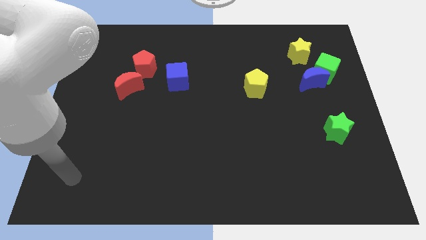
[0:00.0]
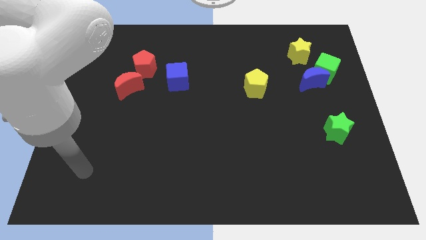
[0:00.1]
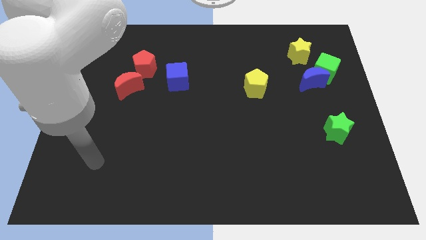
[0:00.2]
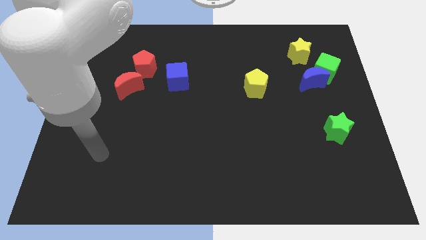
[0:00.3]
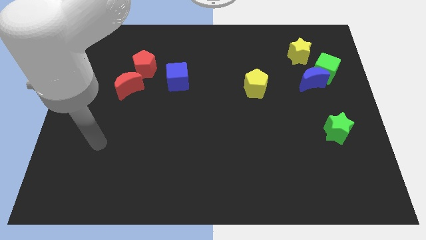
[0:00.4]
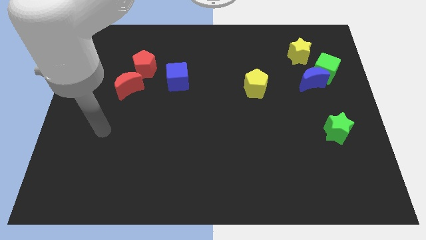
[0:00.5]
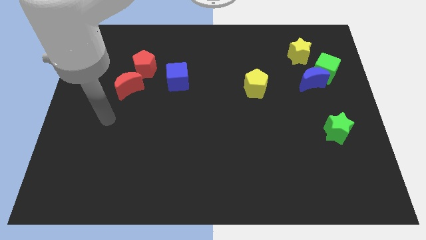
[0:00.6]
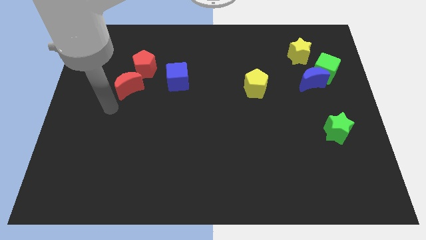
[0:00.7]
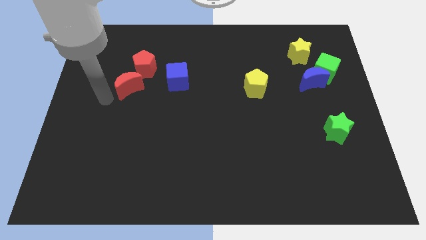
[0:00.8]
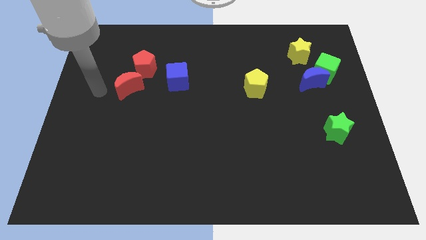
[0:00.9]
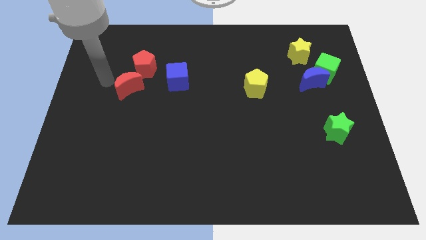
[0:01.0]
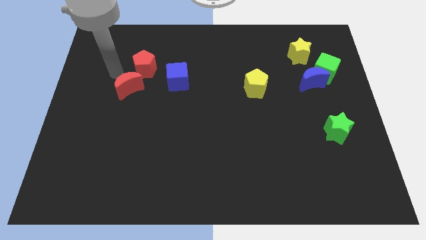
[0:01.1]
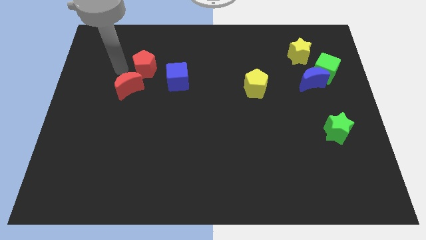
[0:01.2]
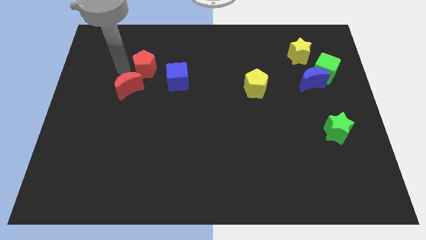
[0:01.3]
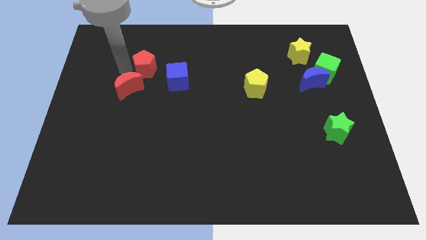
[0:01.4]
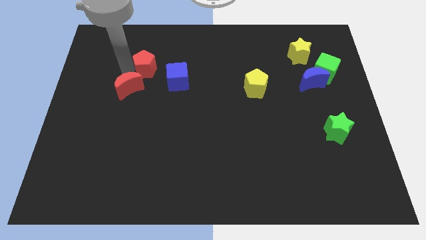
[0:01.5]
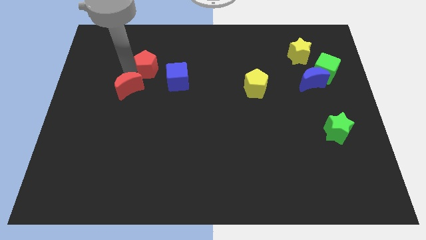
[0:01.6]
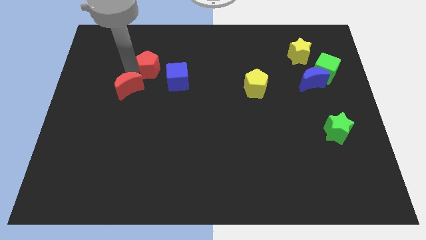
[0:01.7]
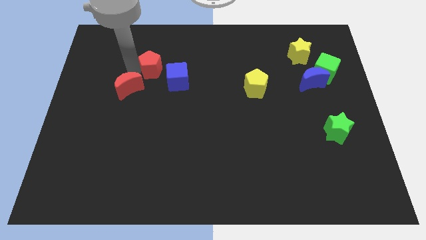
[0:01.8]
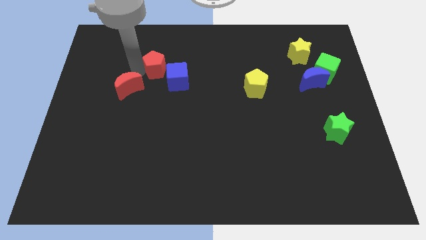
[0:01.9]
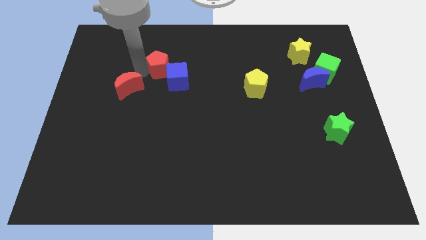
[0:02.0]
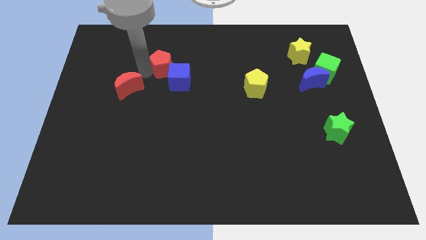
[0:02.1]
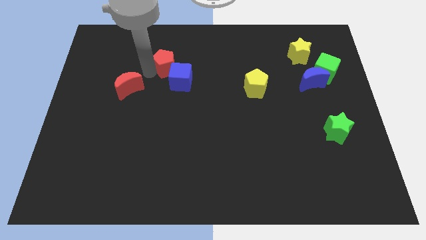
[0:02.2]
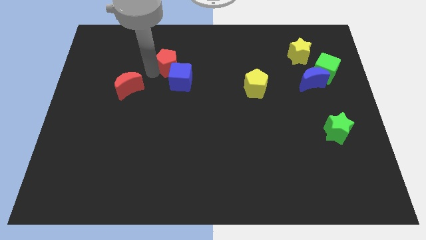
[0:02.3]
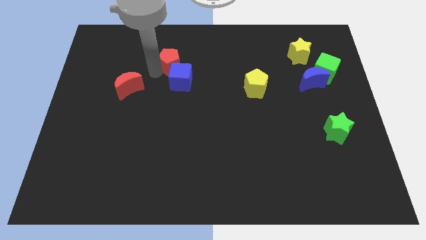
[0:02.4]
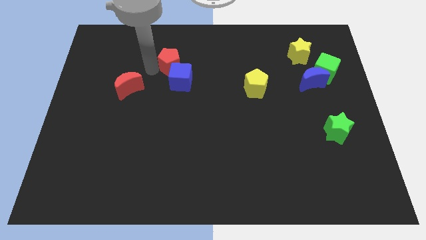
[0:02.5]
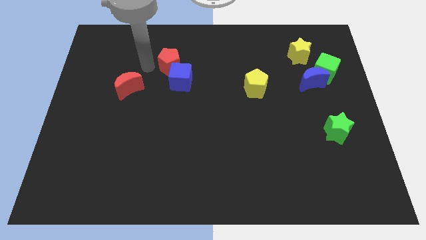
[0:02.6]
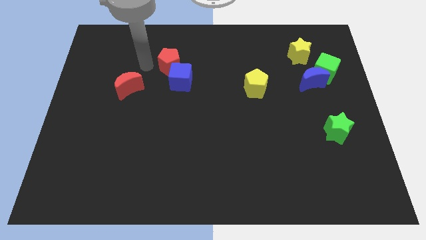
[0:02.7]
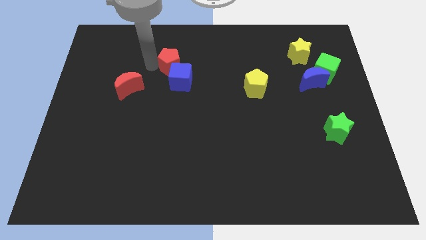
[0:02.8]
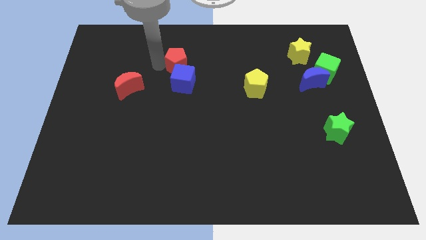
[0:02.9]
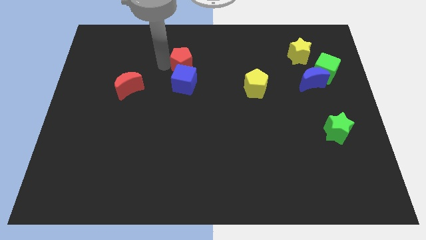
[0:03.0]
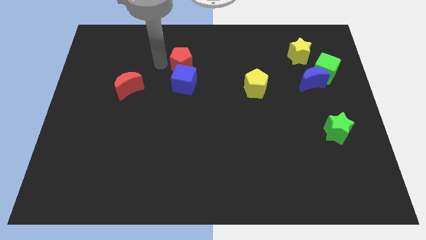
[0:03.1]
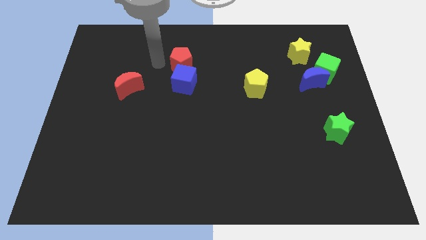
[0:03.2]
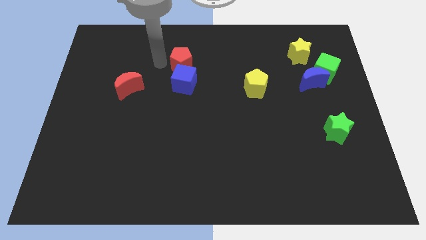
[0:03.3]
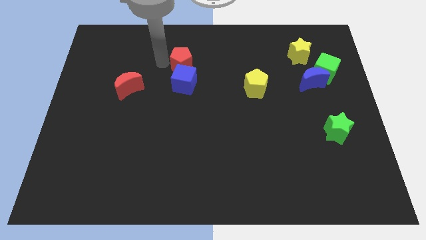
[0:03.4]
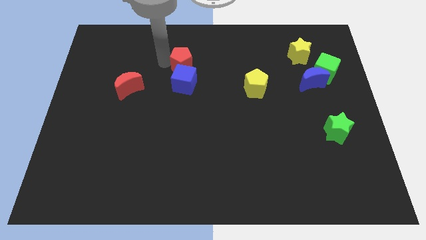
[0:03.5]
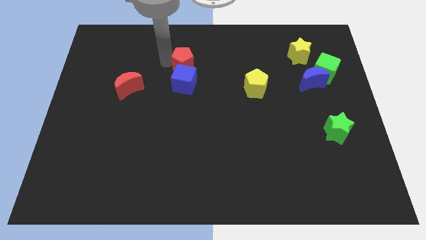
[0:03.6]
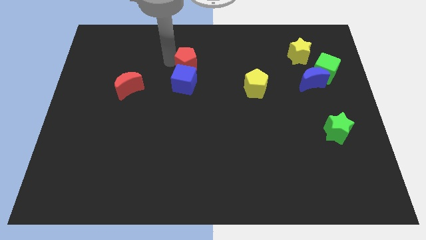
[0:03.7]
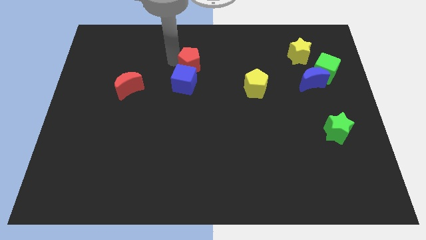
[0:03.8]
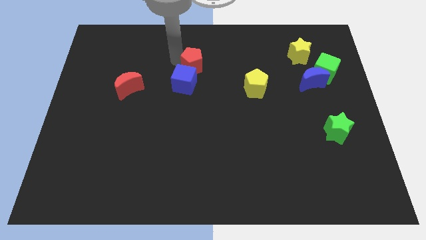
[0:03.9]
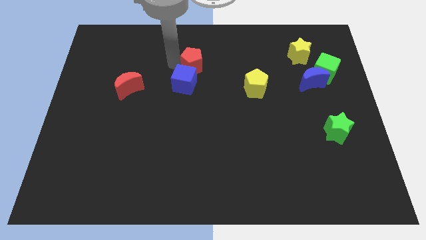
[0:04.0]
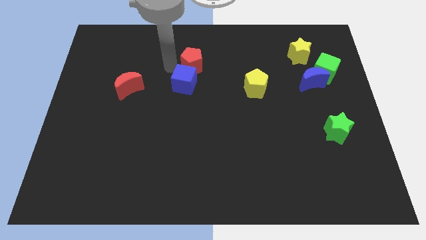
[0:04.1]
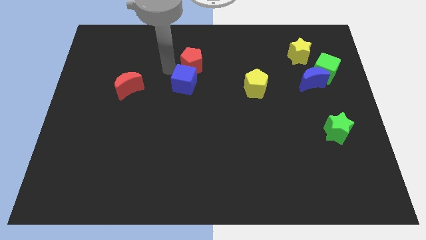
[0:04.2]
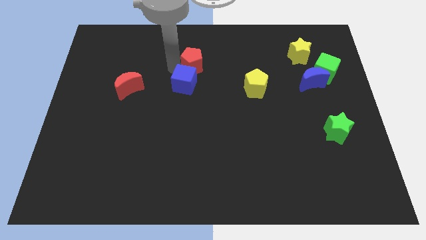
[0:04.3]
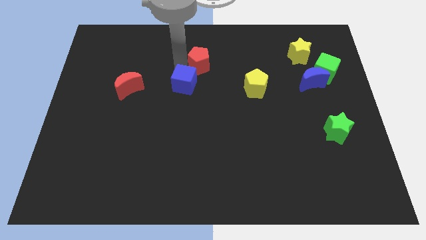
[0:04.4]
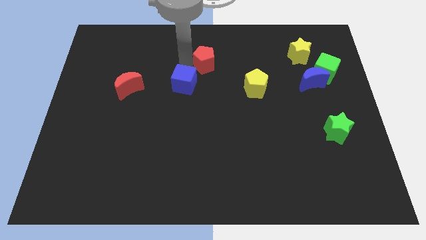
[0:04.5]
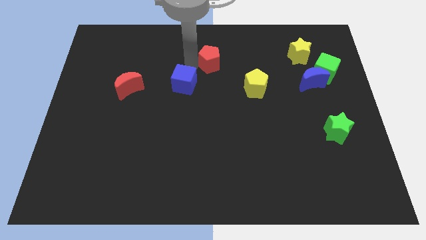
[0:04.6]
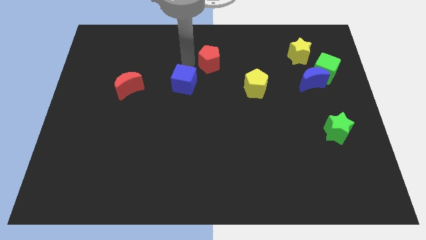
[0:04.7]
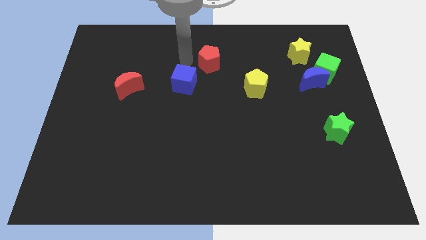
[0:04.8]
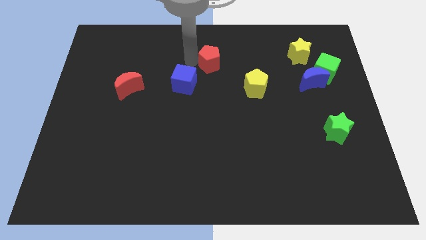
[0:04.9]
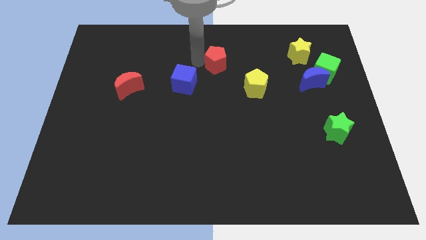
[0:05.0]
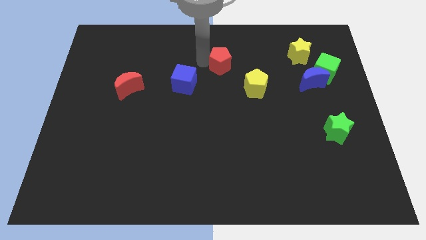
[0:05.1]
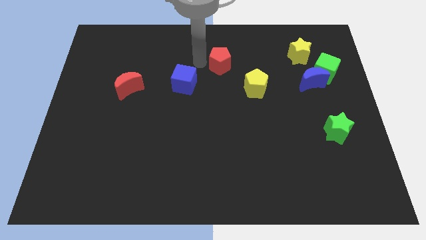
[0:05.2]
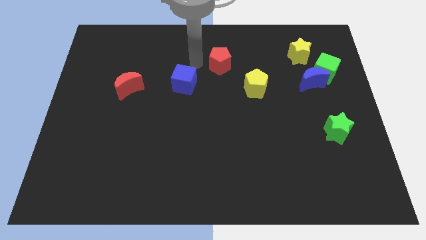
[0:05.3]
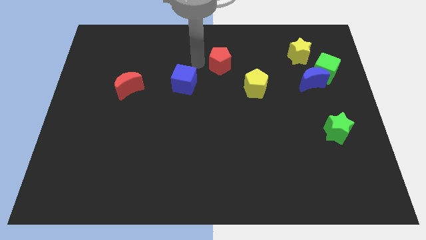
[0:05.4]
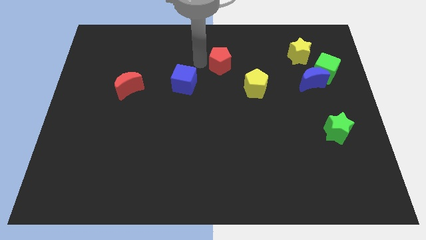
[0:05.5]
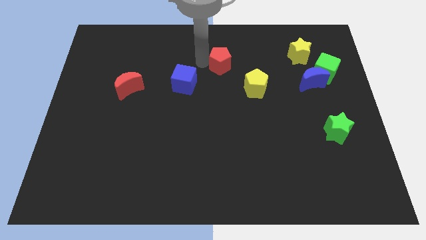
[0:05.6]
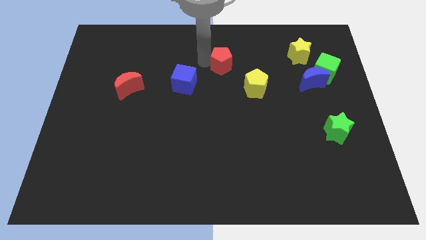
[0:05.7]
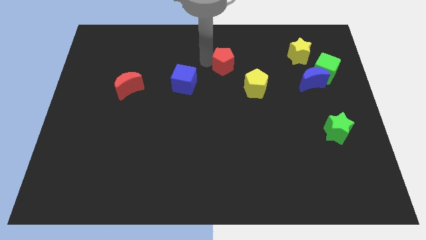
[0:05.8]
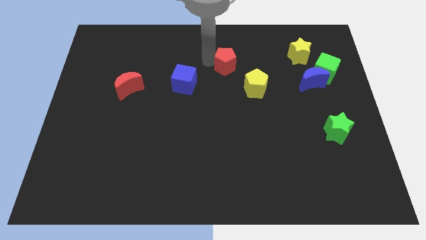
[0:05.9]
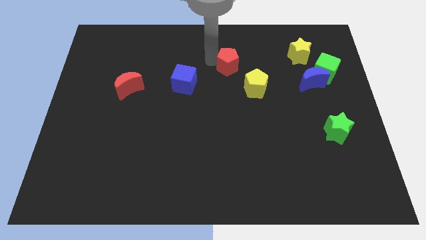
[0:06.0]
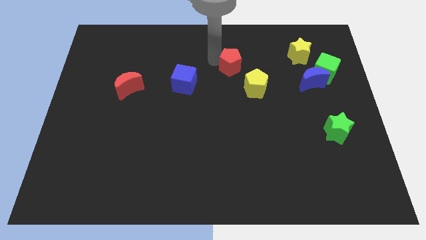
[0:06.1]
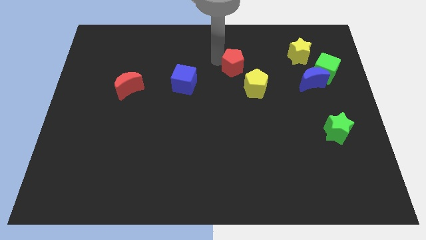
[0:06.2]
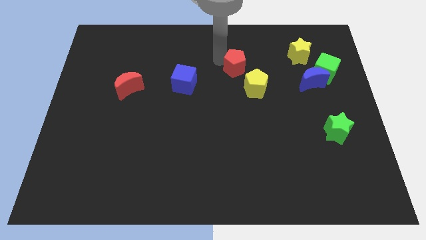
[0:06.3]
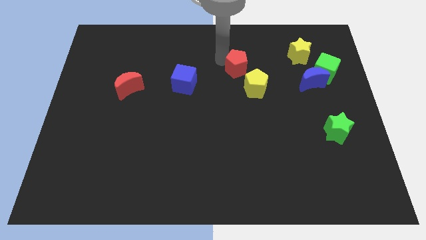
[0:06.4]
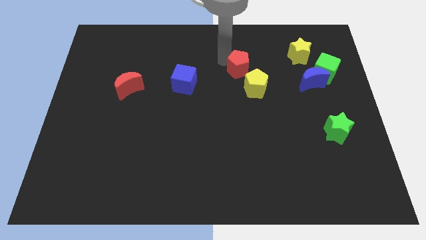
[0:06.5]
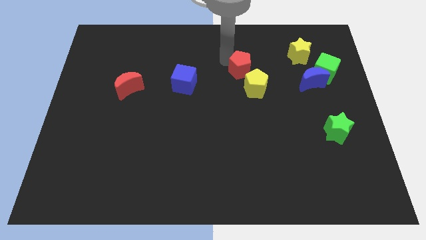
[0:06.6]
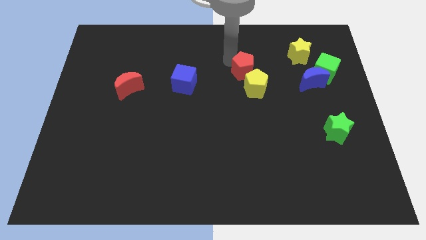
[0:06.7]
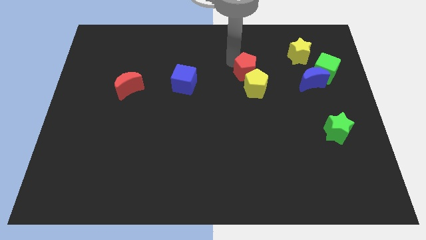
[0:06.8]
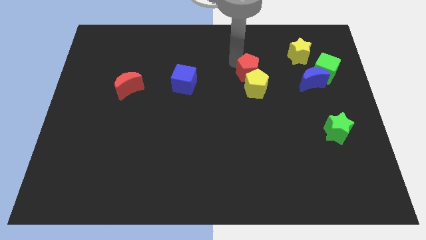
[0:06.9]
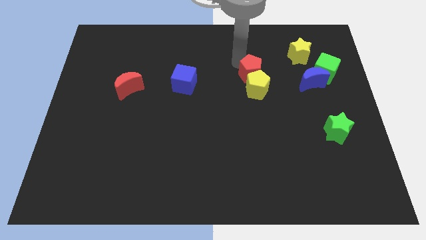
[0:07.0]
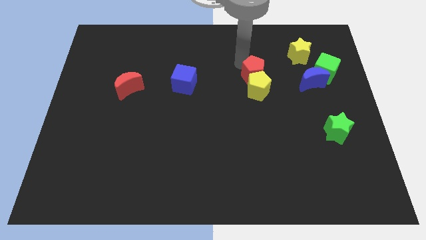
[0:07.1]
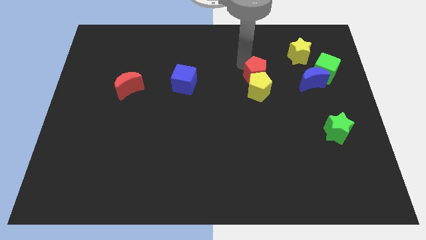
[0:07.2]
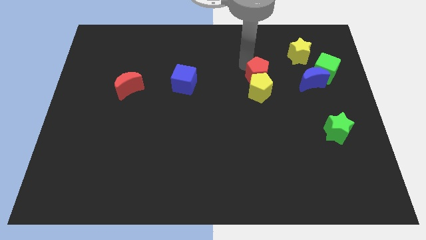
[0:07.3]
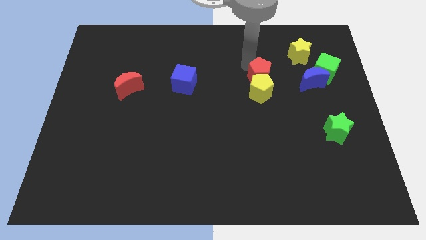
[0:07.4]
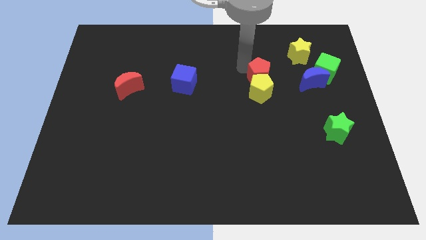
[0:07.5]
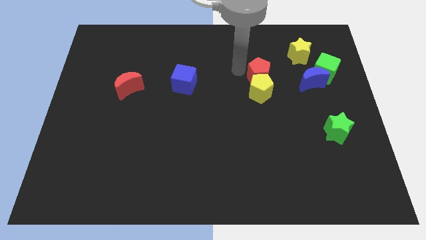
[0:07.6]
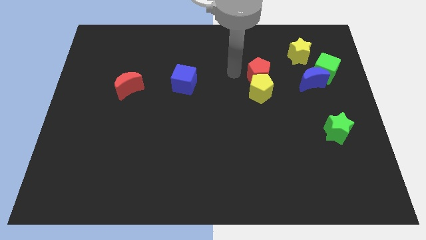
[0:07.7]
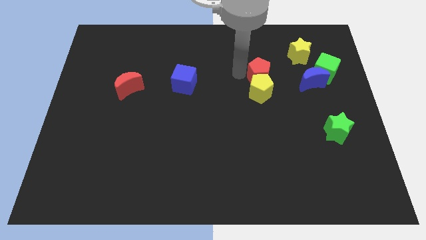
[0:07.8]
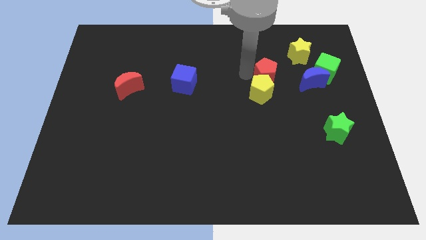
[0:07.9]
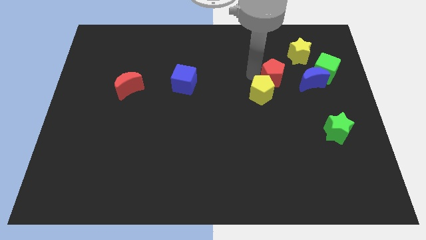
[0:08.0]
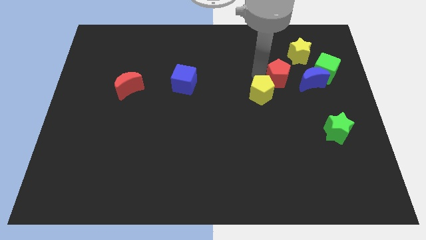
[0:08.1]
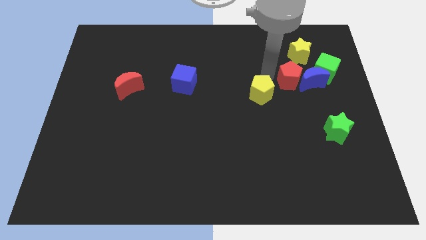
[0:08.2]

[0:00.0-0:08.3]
slide the red pentagon towards the blue moon

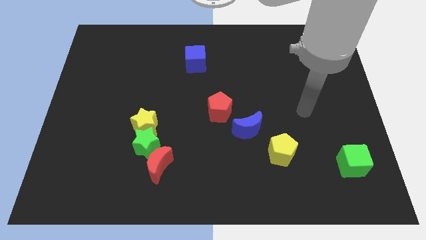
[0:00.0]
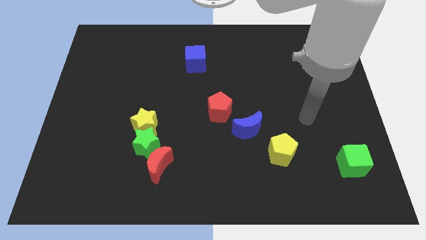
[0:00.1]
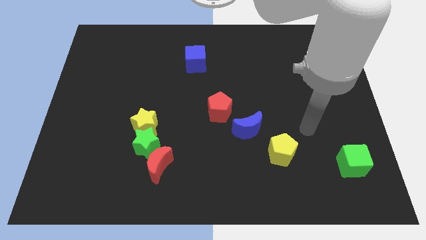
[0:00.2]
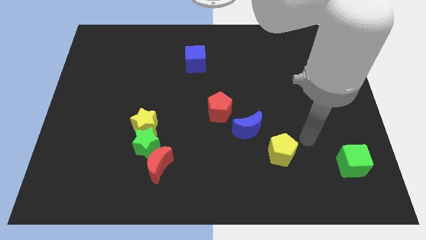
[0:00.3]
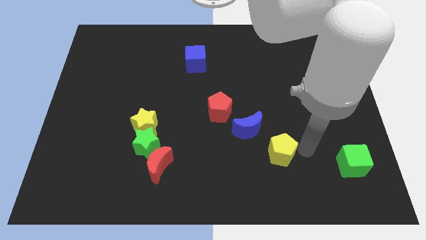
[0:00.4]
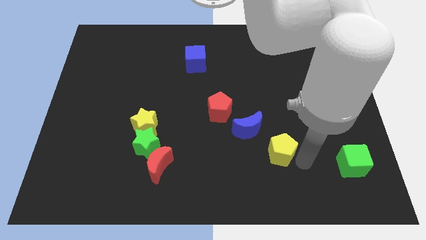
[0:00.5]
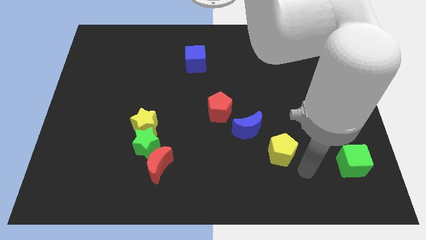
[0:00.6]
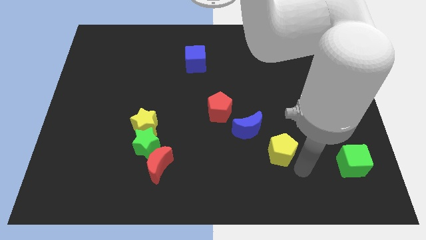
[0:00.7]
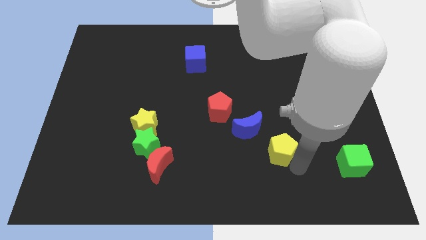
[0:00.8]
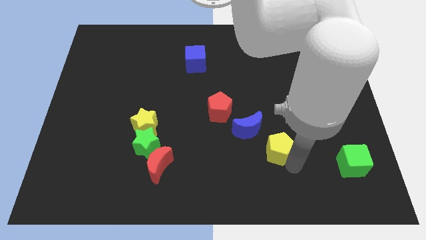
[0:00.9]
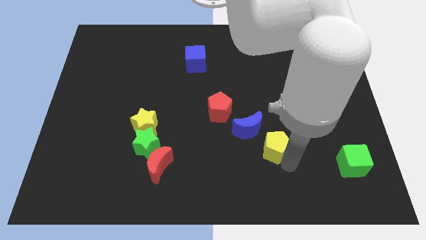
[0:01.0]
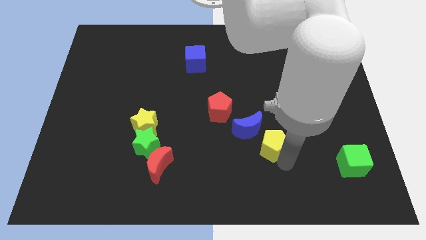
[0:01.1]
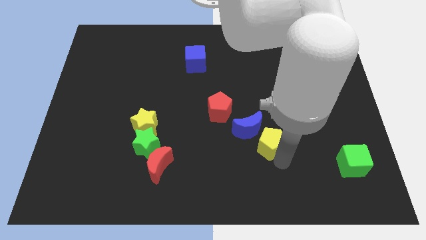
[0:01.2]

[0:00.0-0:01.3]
move the yellow pentagon towards the blue moon
